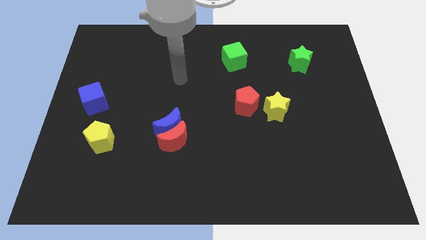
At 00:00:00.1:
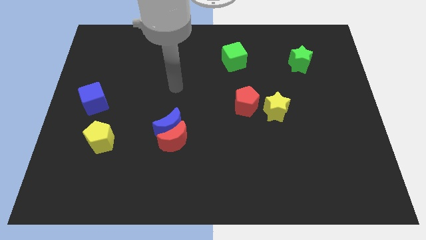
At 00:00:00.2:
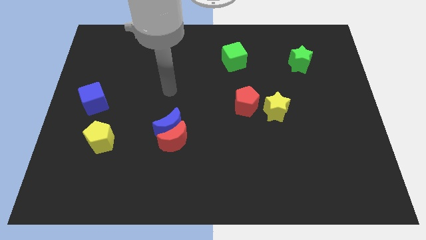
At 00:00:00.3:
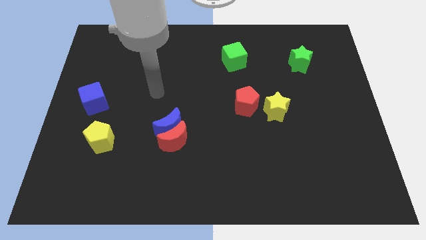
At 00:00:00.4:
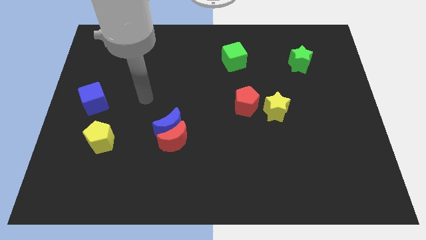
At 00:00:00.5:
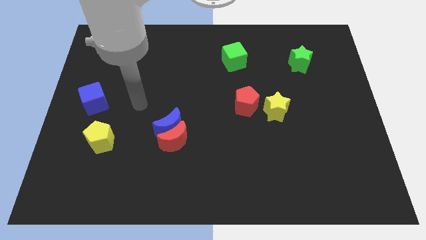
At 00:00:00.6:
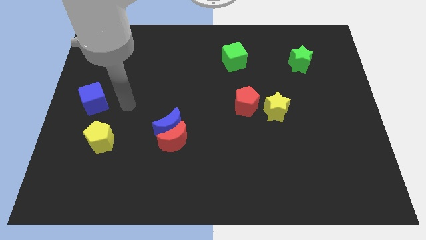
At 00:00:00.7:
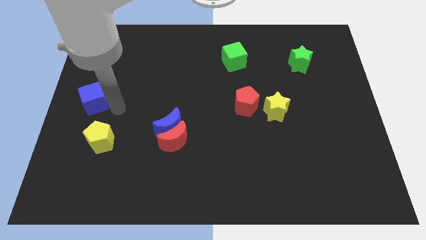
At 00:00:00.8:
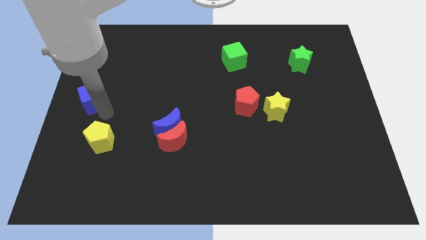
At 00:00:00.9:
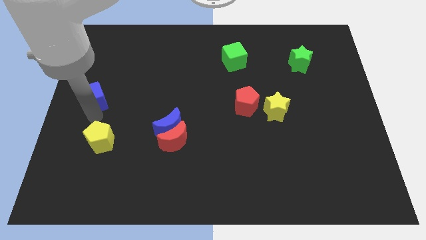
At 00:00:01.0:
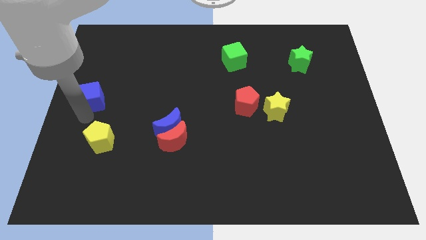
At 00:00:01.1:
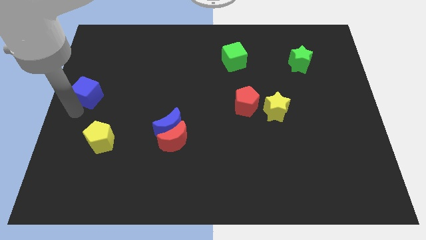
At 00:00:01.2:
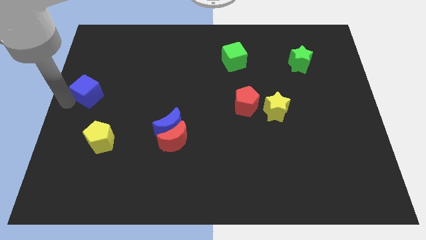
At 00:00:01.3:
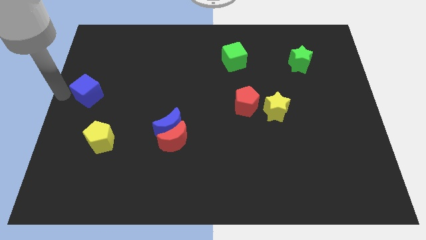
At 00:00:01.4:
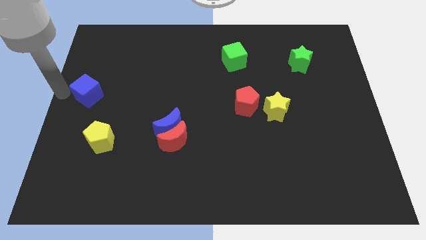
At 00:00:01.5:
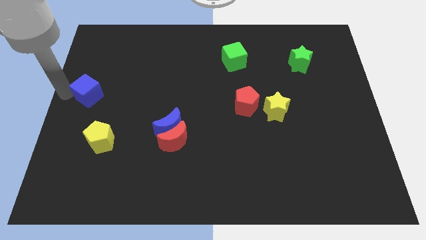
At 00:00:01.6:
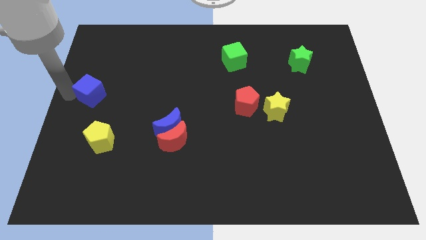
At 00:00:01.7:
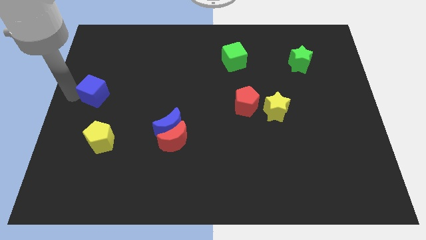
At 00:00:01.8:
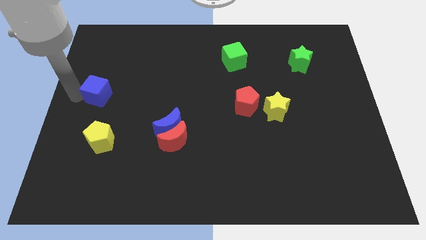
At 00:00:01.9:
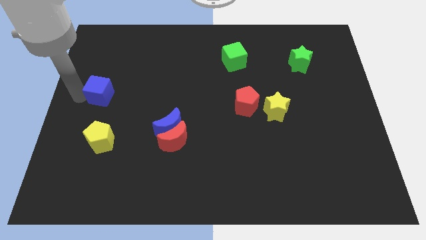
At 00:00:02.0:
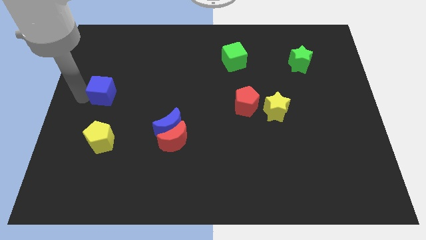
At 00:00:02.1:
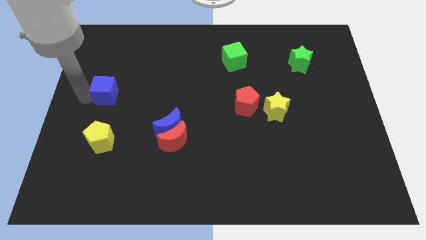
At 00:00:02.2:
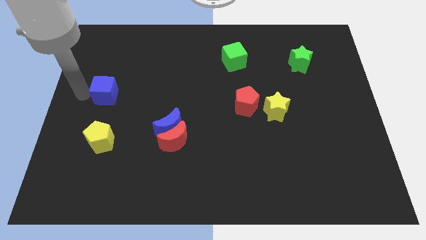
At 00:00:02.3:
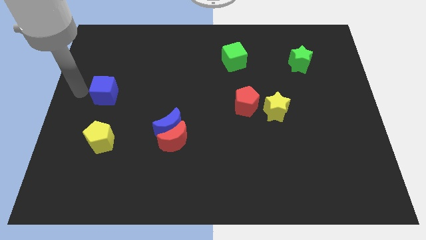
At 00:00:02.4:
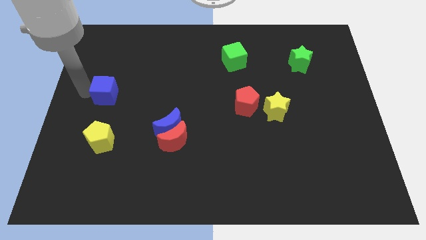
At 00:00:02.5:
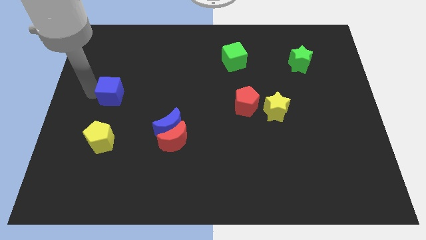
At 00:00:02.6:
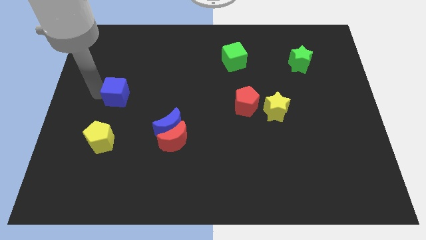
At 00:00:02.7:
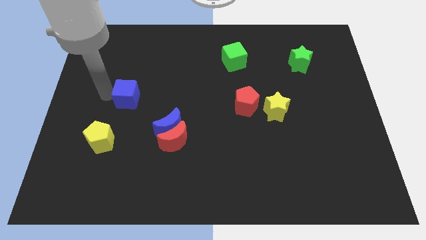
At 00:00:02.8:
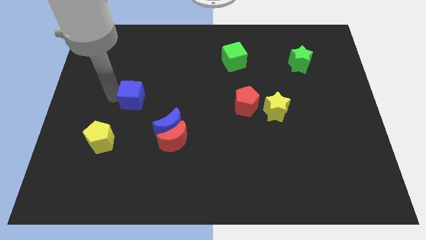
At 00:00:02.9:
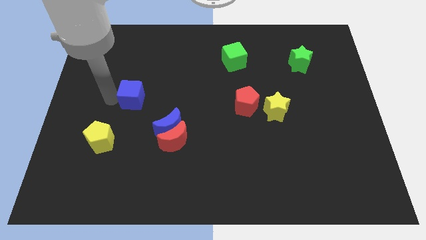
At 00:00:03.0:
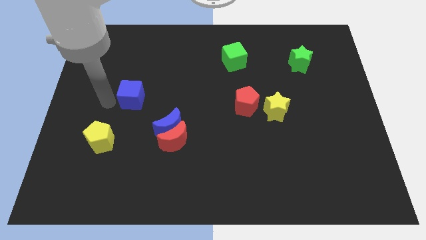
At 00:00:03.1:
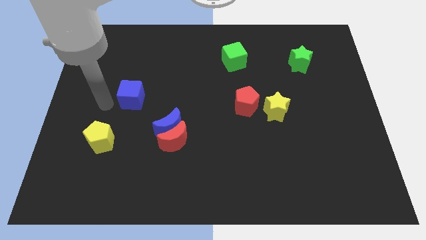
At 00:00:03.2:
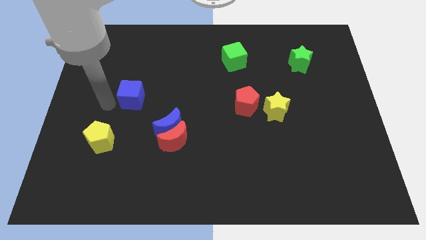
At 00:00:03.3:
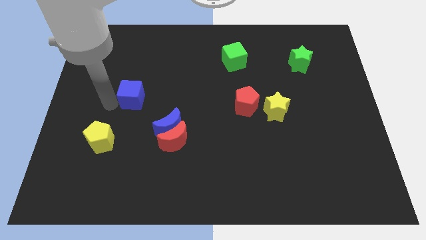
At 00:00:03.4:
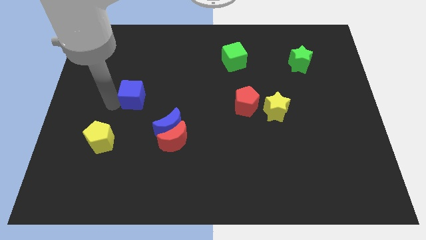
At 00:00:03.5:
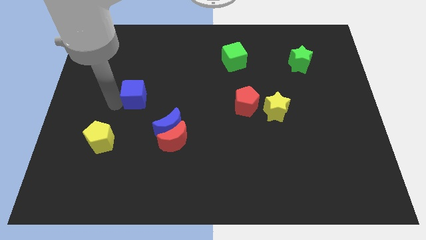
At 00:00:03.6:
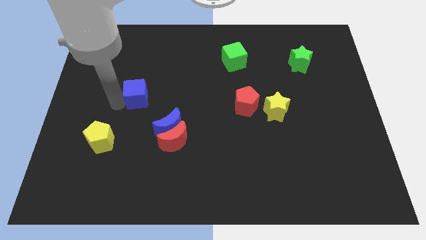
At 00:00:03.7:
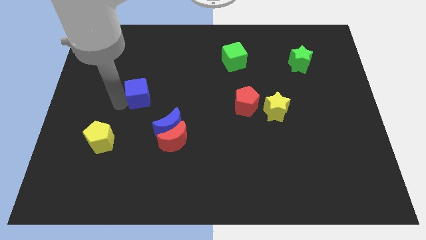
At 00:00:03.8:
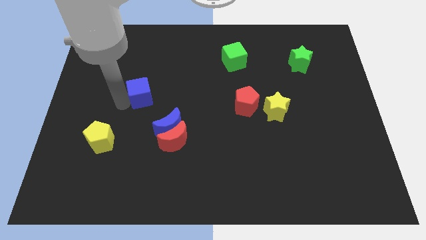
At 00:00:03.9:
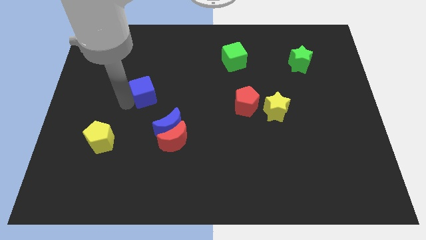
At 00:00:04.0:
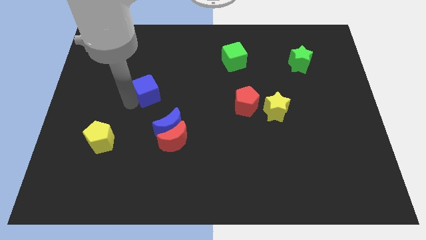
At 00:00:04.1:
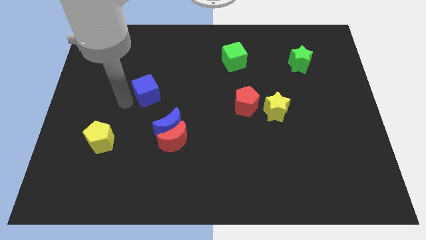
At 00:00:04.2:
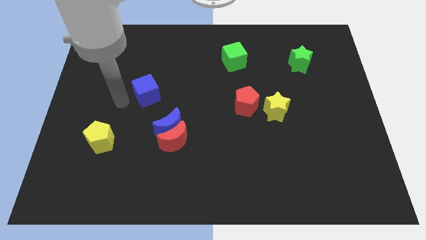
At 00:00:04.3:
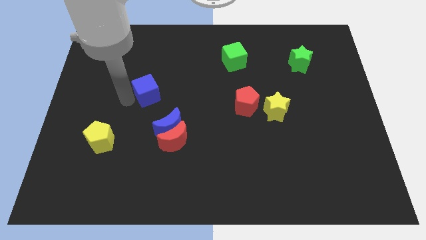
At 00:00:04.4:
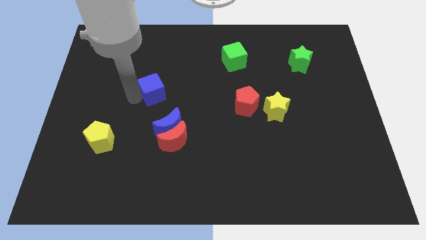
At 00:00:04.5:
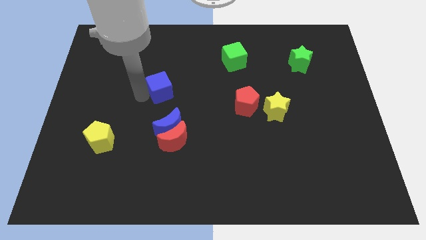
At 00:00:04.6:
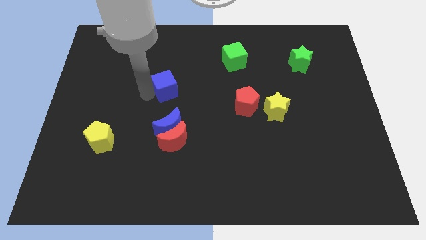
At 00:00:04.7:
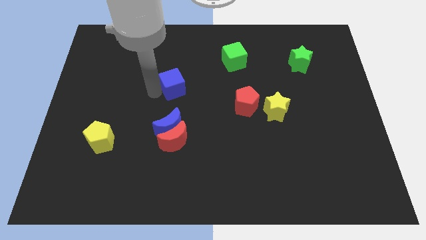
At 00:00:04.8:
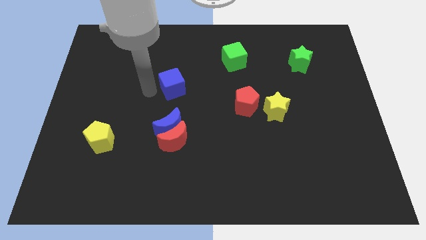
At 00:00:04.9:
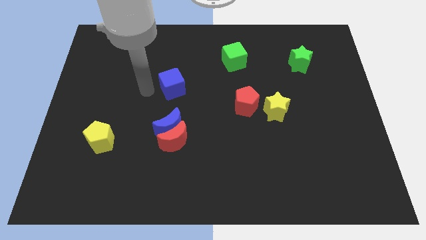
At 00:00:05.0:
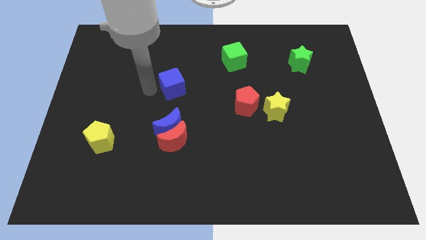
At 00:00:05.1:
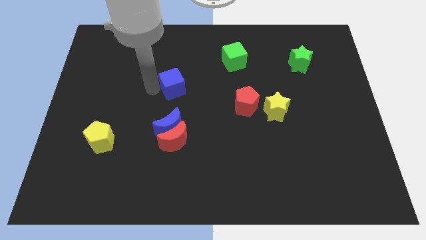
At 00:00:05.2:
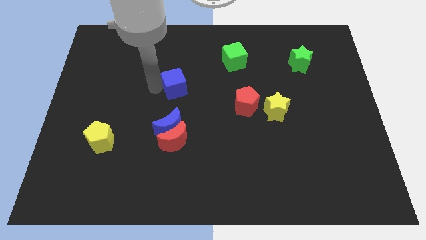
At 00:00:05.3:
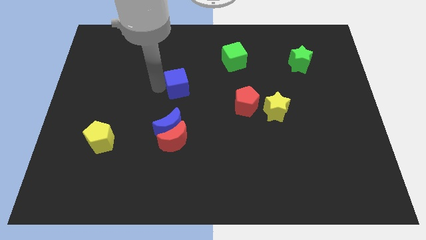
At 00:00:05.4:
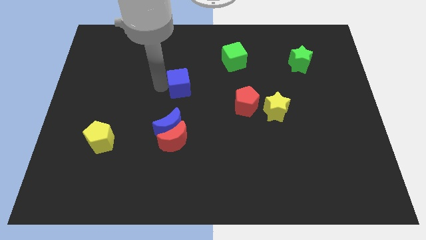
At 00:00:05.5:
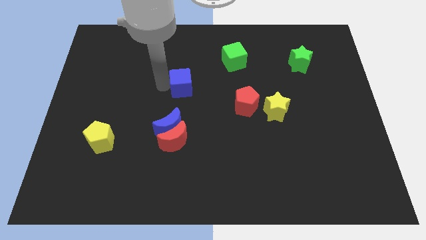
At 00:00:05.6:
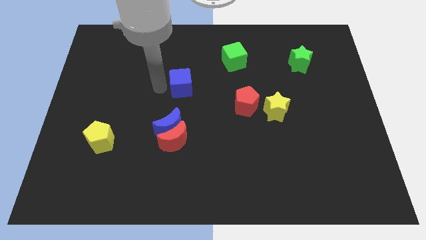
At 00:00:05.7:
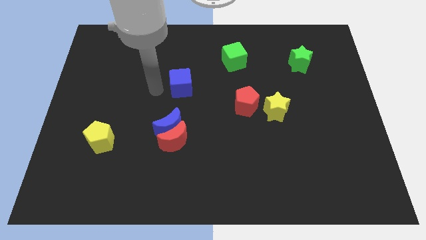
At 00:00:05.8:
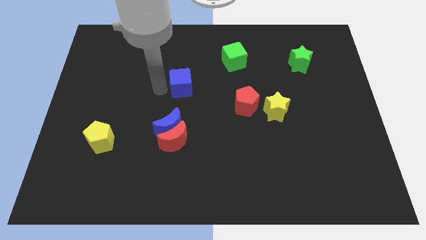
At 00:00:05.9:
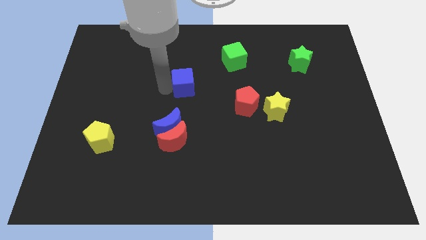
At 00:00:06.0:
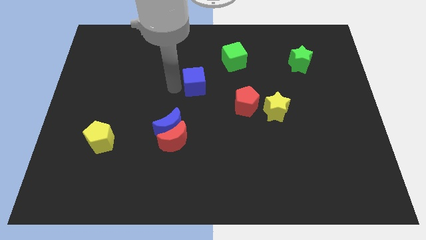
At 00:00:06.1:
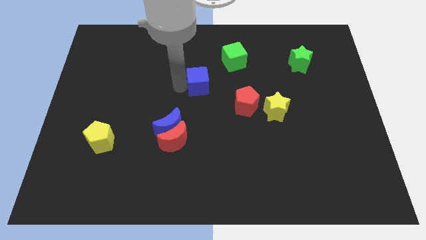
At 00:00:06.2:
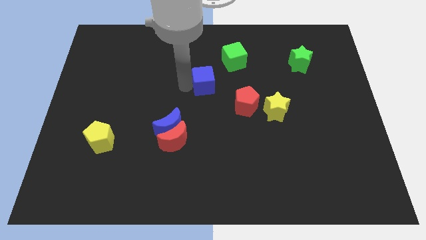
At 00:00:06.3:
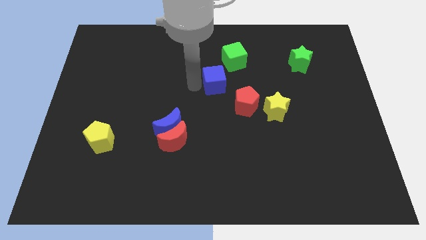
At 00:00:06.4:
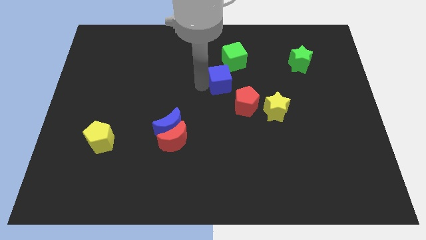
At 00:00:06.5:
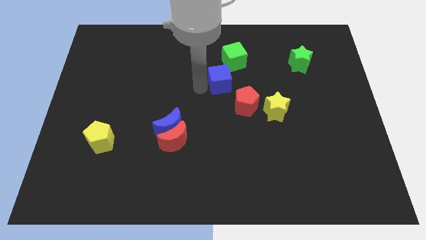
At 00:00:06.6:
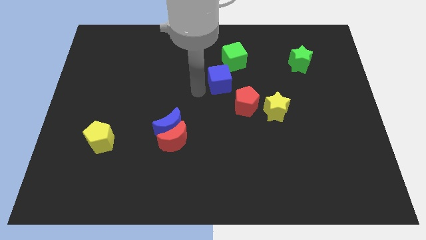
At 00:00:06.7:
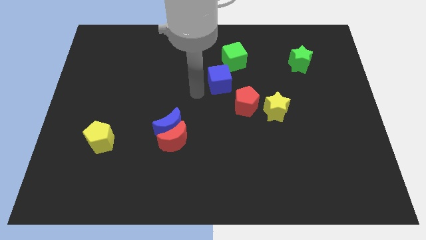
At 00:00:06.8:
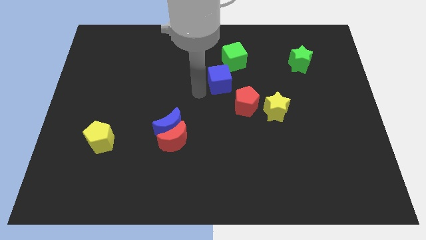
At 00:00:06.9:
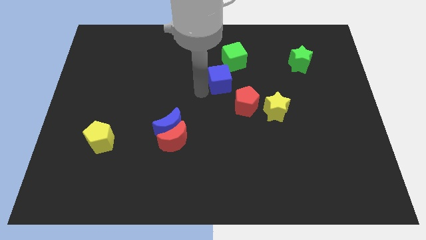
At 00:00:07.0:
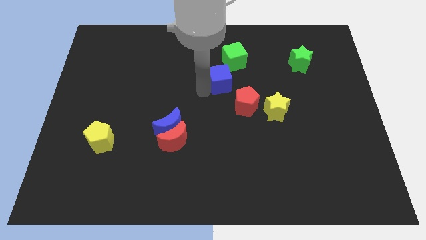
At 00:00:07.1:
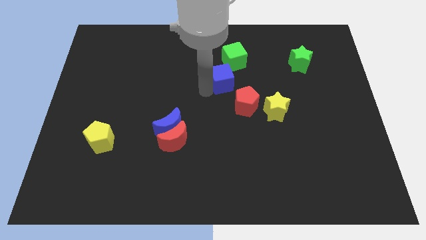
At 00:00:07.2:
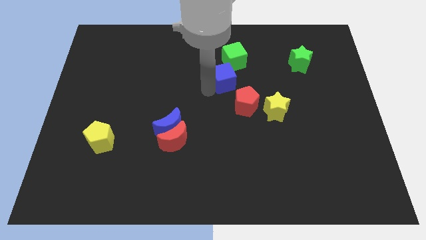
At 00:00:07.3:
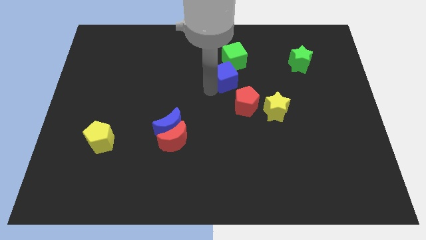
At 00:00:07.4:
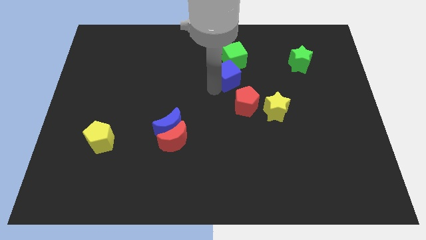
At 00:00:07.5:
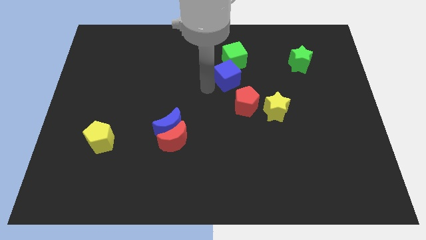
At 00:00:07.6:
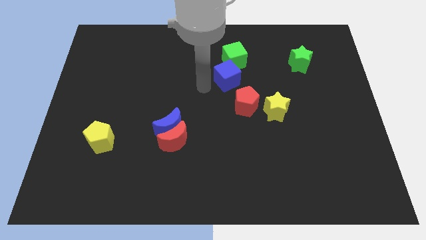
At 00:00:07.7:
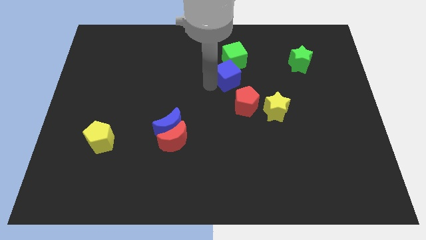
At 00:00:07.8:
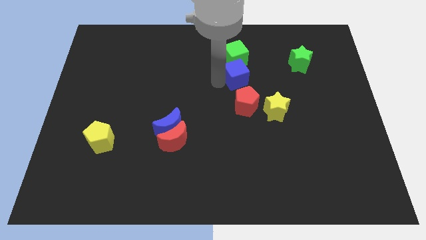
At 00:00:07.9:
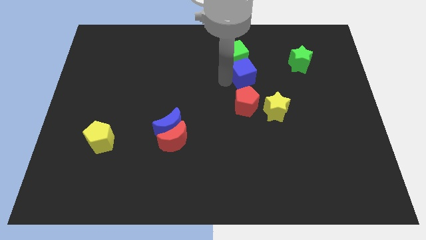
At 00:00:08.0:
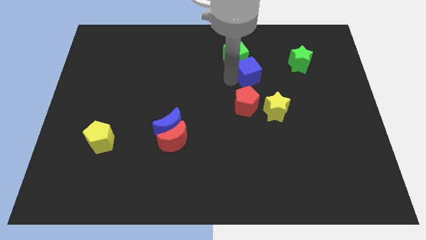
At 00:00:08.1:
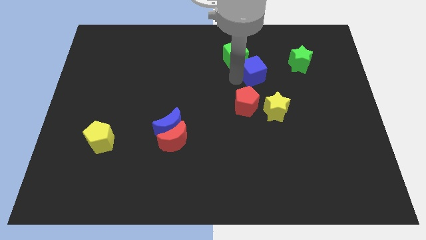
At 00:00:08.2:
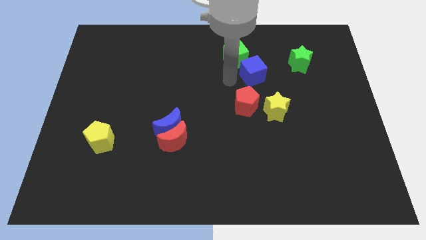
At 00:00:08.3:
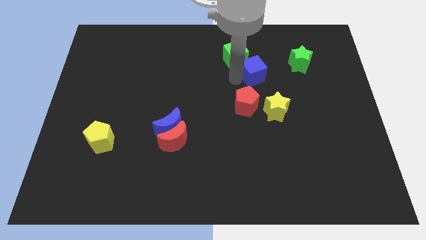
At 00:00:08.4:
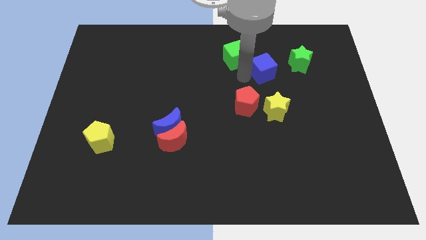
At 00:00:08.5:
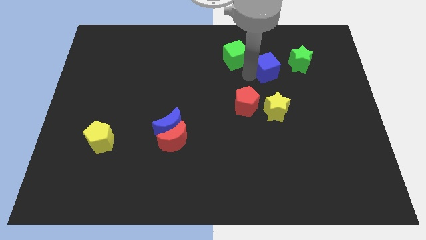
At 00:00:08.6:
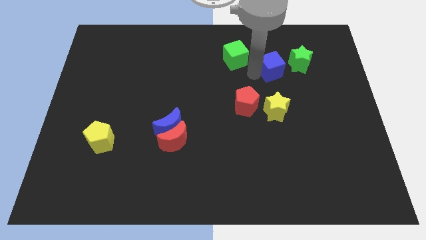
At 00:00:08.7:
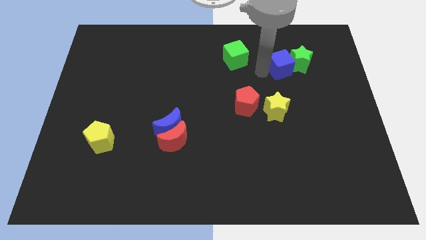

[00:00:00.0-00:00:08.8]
push the blue cube next to the green star
